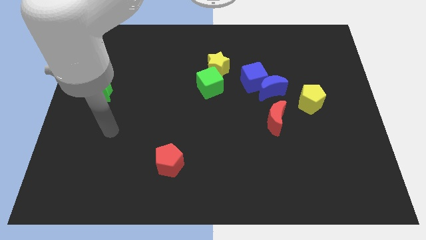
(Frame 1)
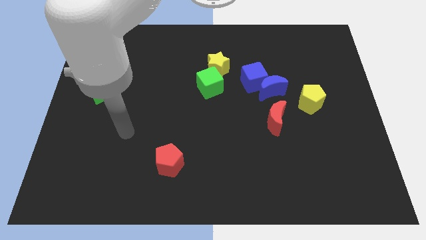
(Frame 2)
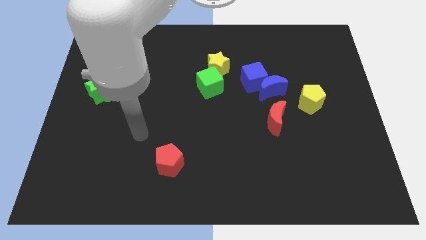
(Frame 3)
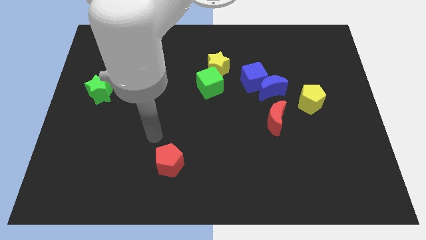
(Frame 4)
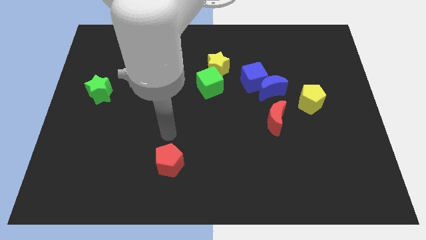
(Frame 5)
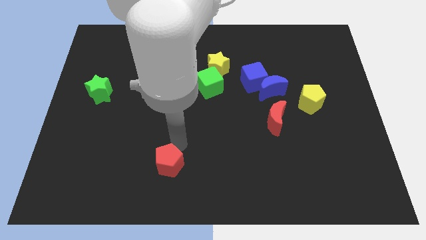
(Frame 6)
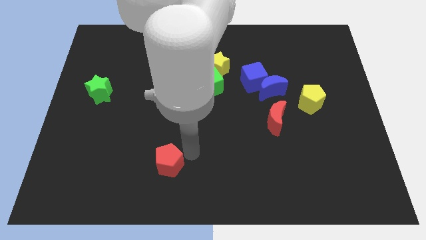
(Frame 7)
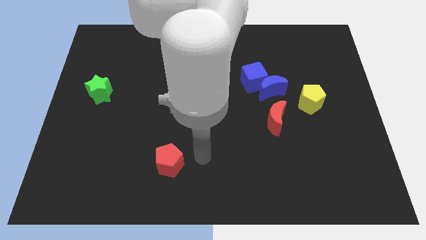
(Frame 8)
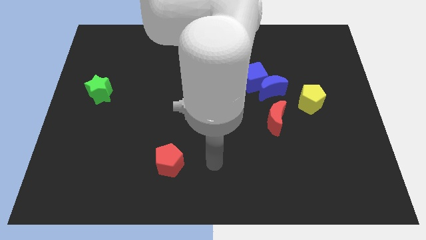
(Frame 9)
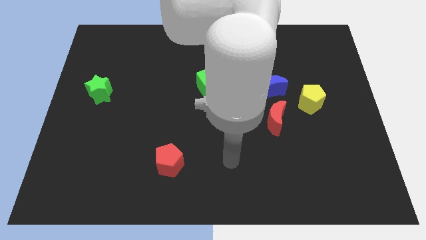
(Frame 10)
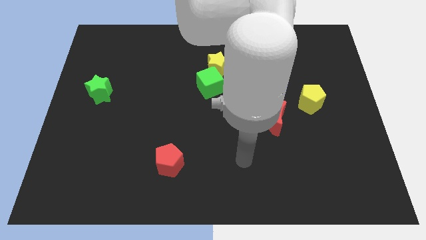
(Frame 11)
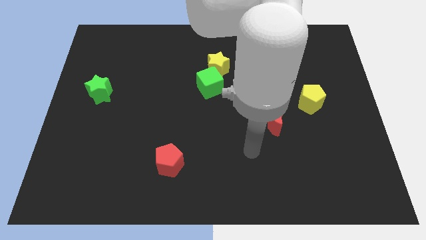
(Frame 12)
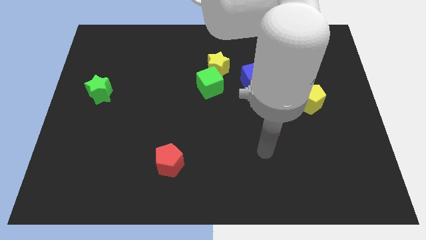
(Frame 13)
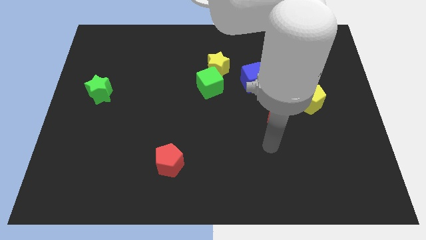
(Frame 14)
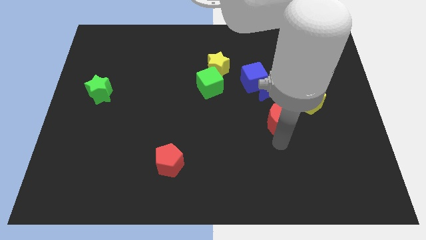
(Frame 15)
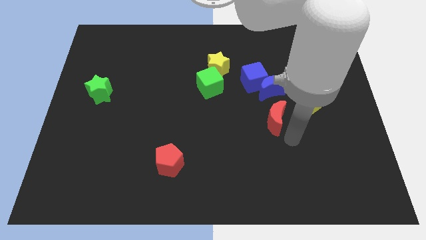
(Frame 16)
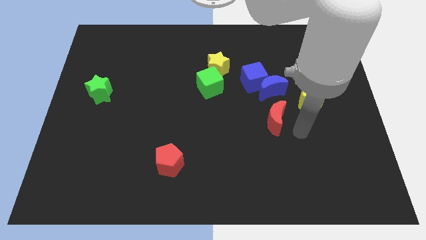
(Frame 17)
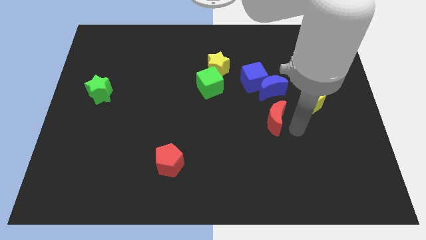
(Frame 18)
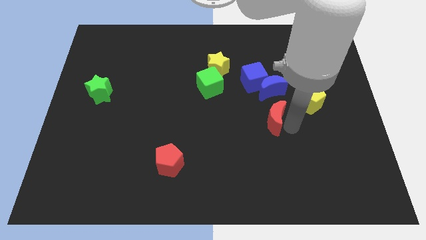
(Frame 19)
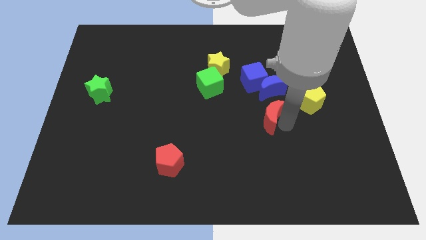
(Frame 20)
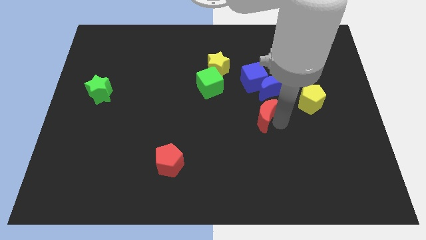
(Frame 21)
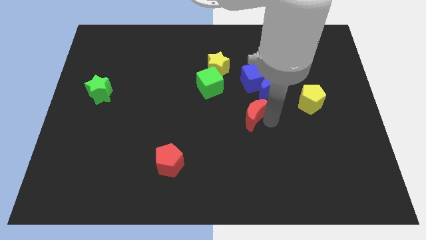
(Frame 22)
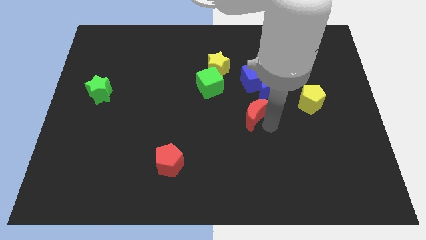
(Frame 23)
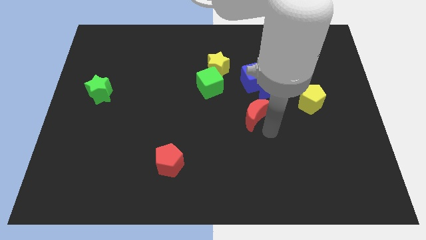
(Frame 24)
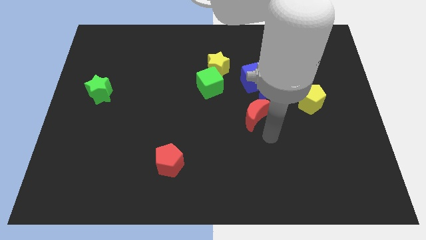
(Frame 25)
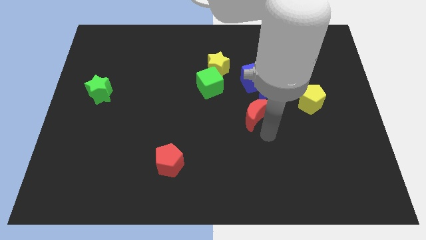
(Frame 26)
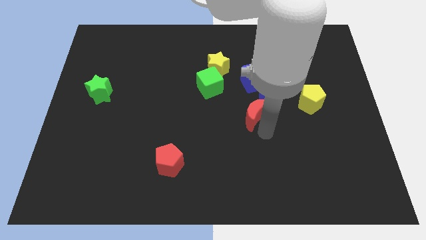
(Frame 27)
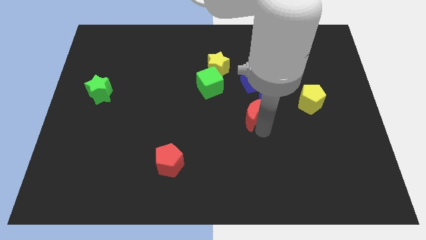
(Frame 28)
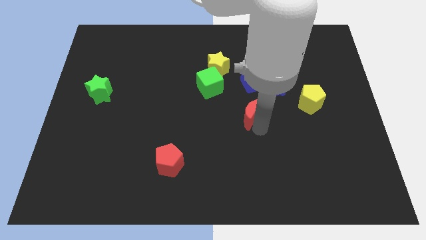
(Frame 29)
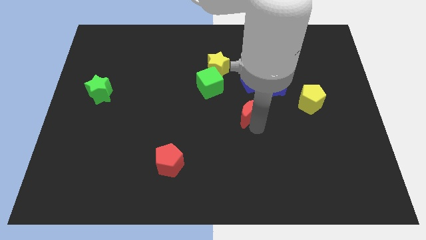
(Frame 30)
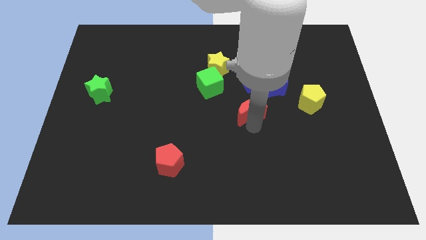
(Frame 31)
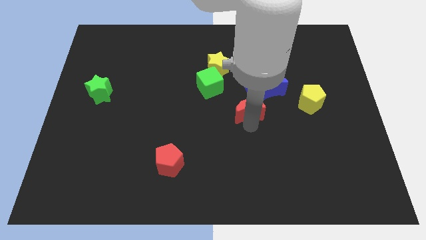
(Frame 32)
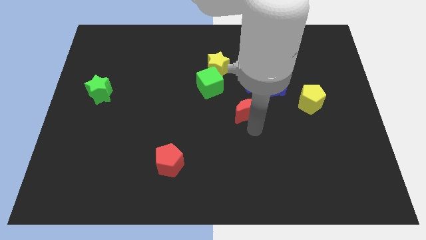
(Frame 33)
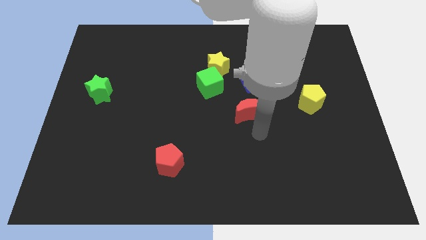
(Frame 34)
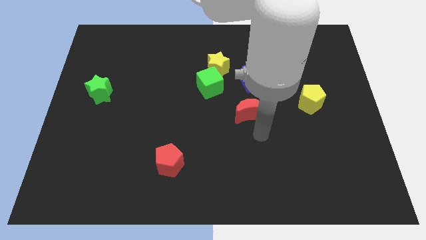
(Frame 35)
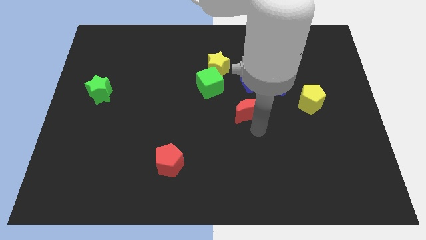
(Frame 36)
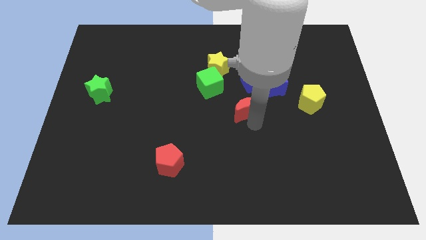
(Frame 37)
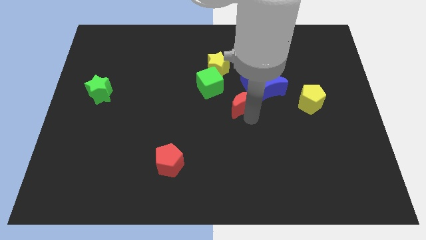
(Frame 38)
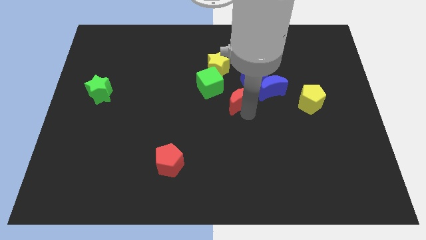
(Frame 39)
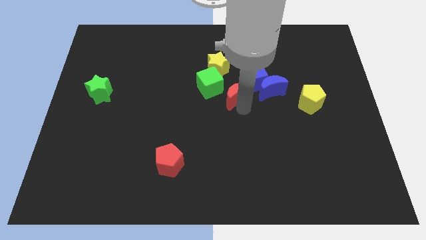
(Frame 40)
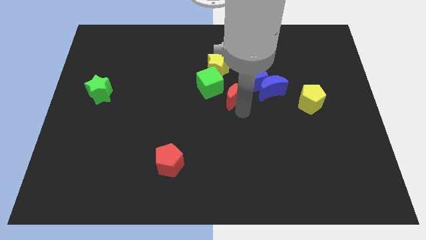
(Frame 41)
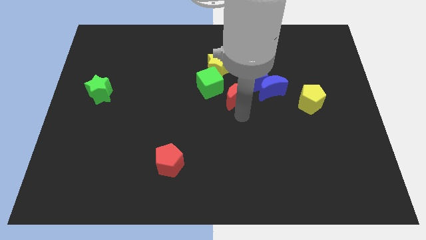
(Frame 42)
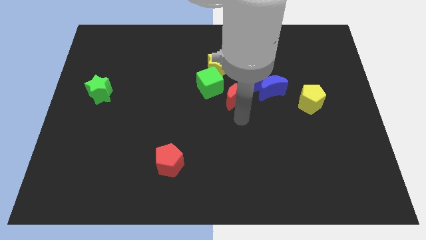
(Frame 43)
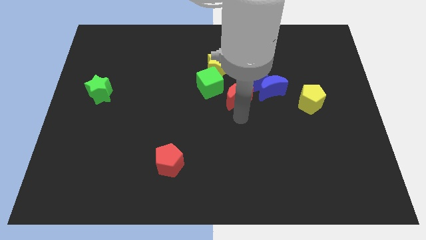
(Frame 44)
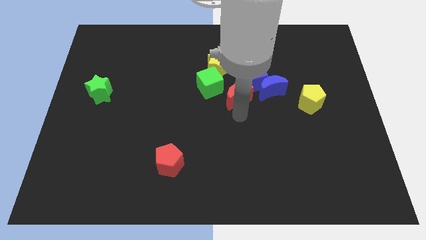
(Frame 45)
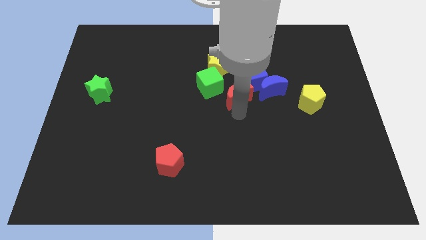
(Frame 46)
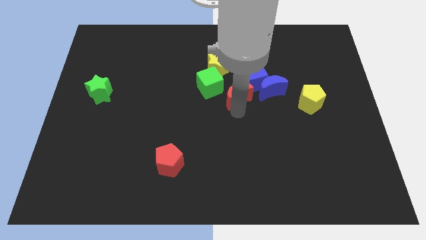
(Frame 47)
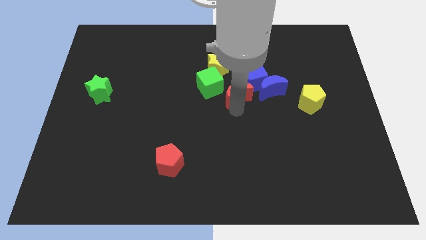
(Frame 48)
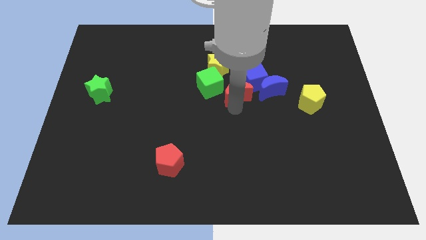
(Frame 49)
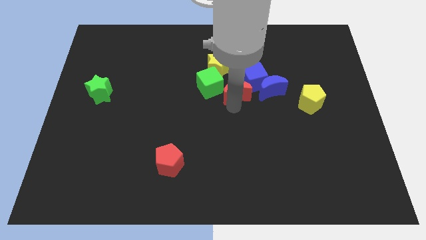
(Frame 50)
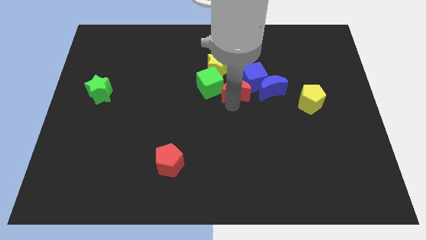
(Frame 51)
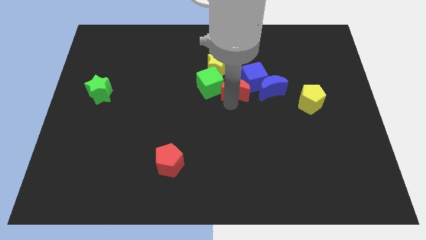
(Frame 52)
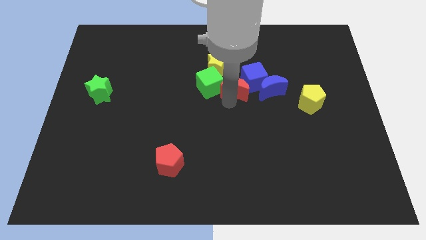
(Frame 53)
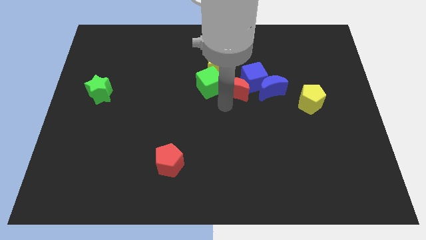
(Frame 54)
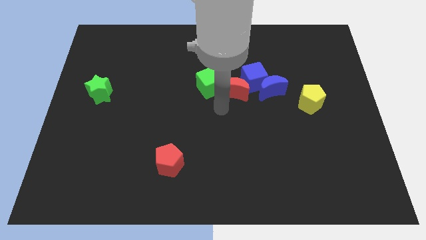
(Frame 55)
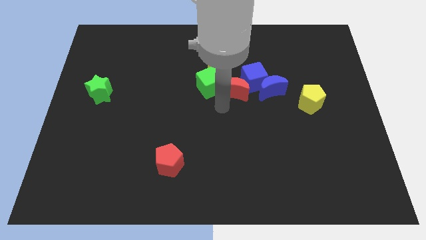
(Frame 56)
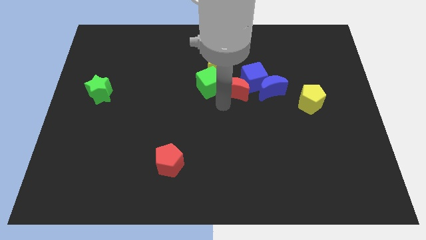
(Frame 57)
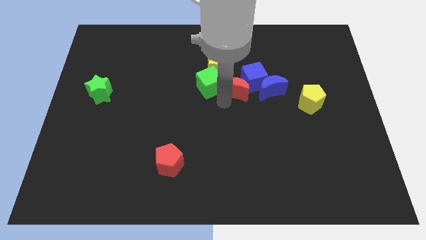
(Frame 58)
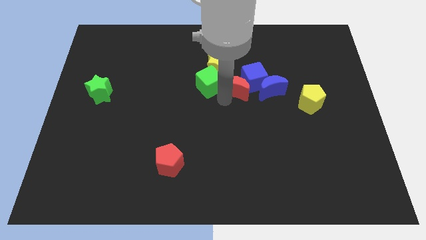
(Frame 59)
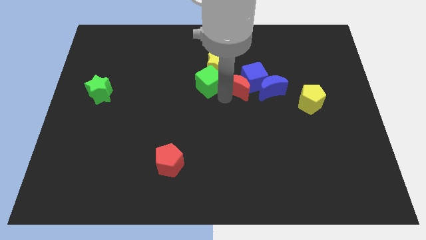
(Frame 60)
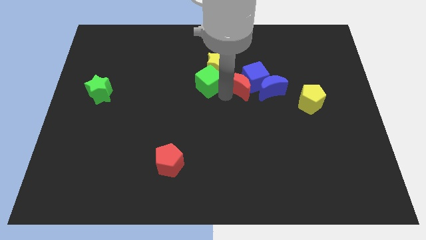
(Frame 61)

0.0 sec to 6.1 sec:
push the red moon to the top left side of the blue moon
